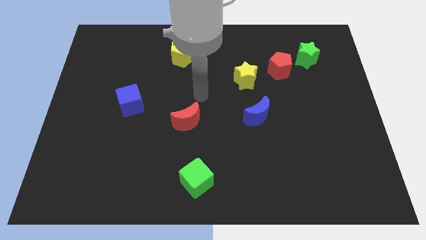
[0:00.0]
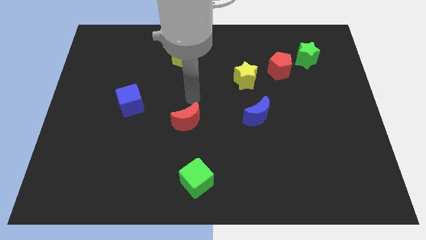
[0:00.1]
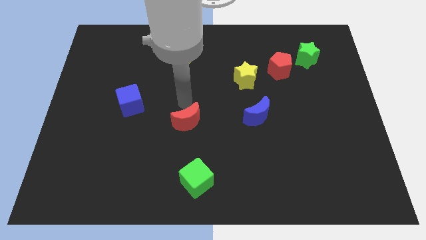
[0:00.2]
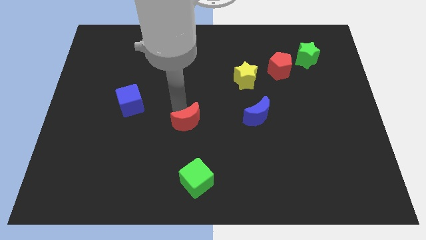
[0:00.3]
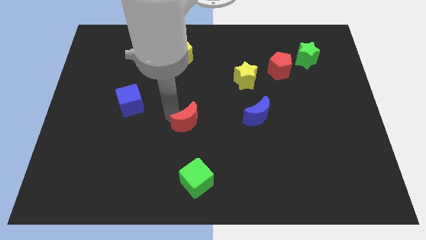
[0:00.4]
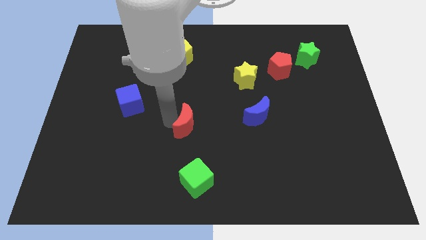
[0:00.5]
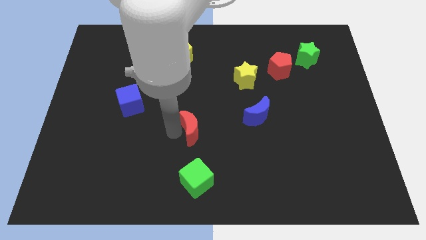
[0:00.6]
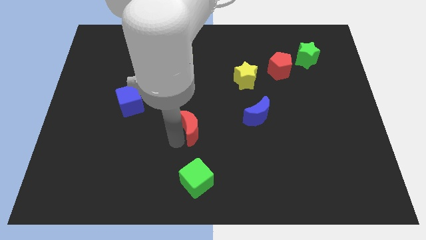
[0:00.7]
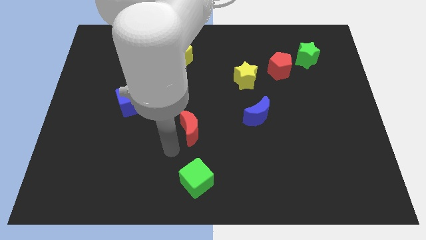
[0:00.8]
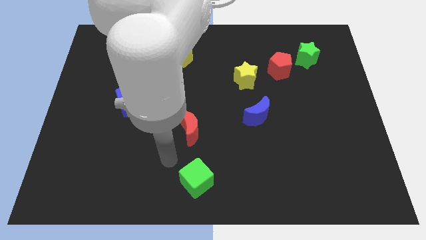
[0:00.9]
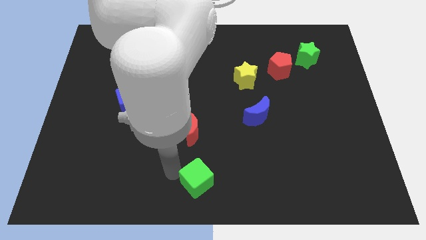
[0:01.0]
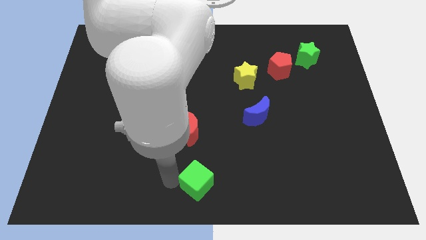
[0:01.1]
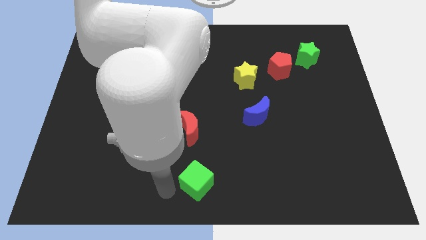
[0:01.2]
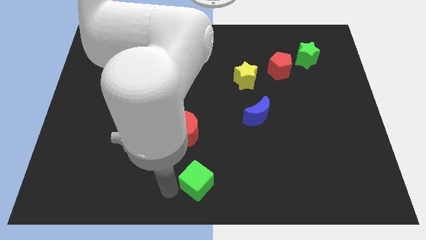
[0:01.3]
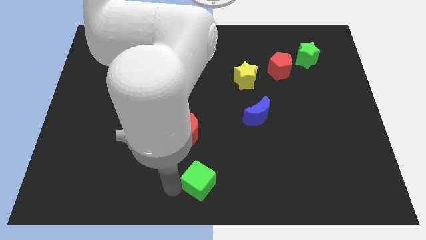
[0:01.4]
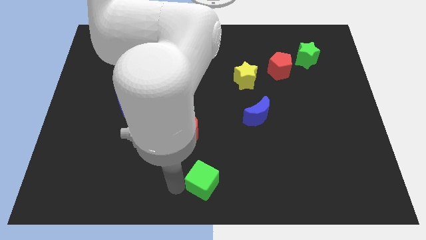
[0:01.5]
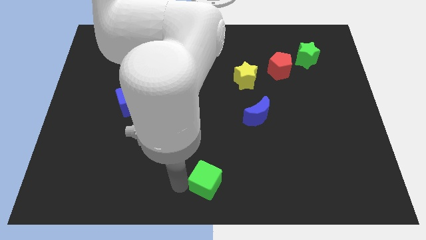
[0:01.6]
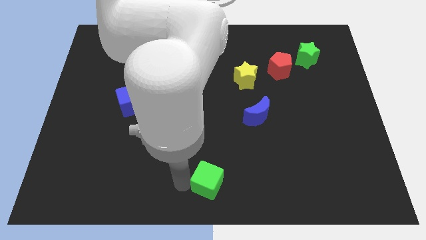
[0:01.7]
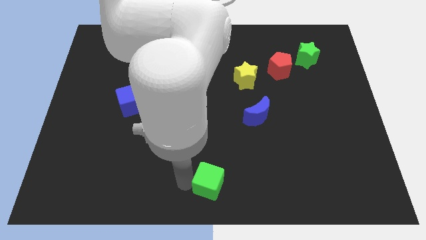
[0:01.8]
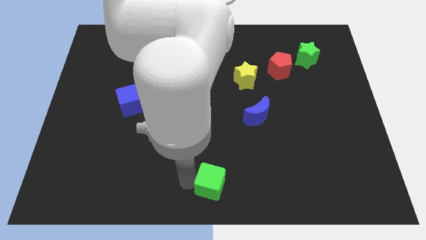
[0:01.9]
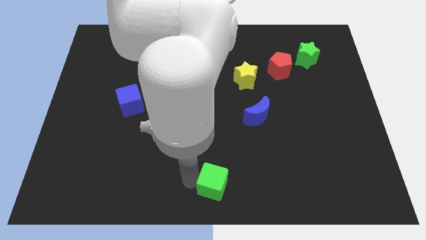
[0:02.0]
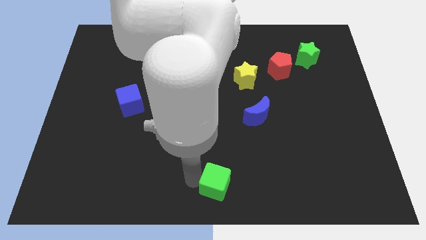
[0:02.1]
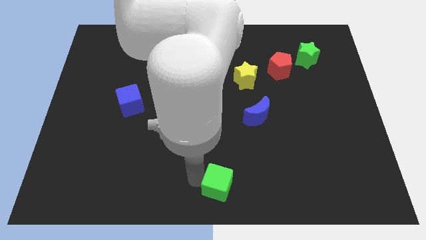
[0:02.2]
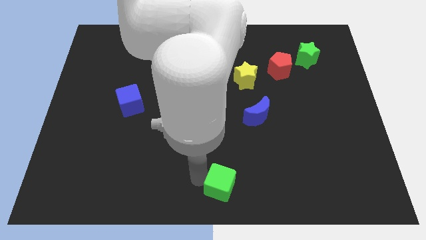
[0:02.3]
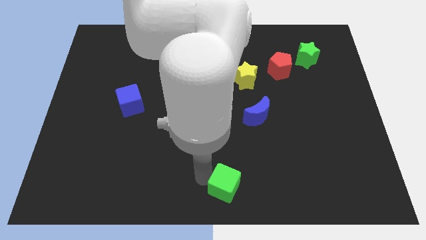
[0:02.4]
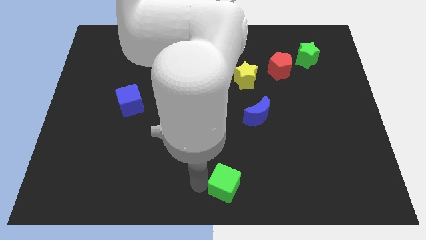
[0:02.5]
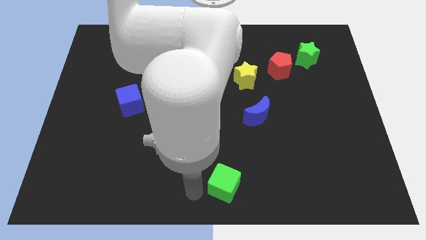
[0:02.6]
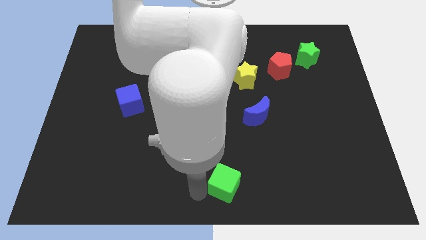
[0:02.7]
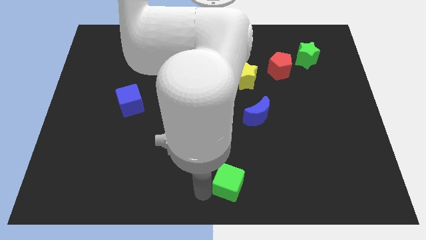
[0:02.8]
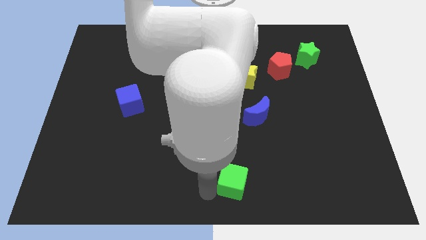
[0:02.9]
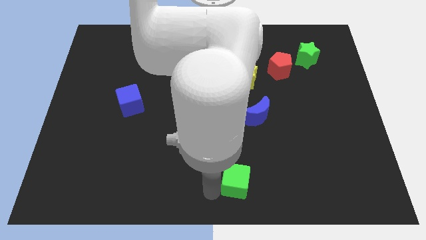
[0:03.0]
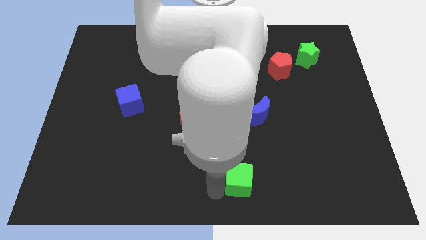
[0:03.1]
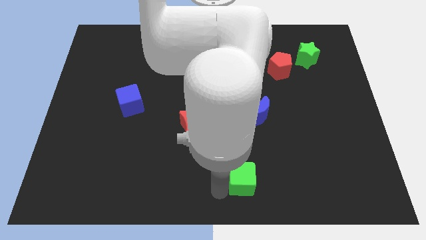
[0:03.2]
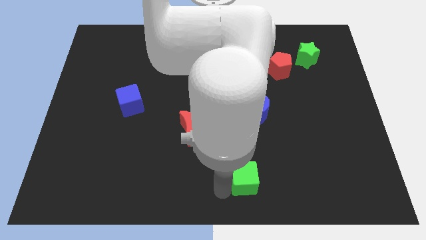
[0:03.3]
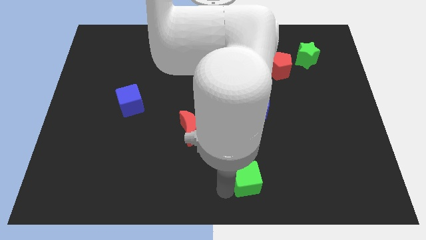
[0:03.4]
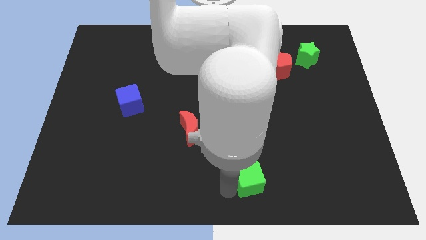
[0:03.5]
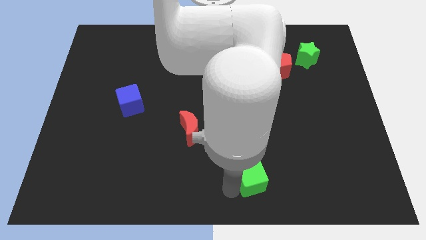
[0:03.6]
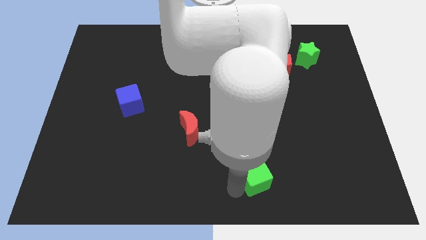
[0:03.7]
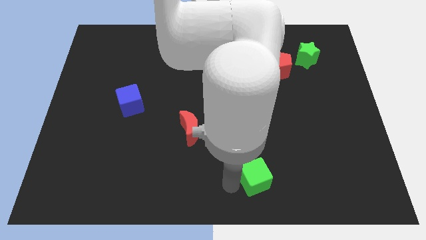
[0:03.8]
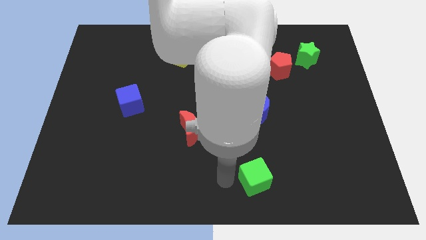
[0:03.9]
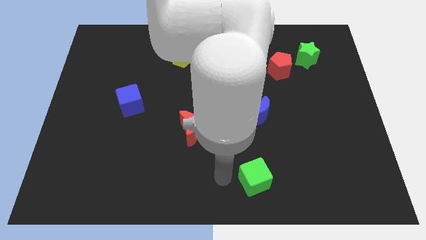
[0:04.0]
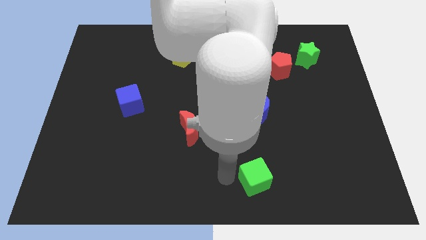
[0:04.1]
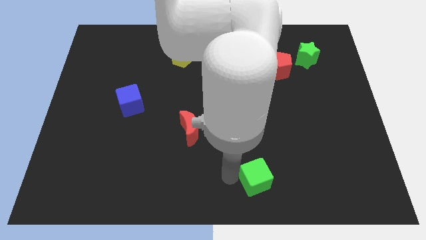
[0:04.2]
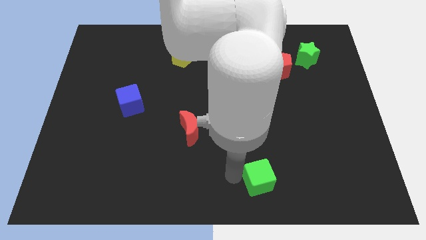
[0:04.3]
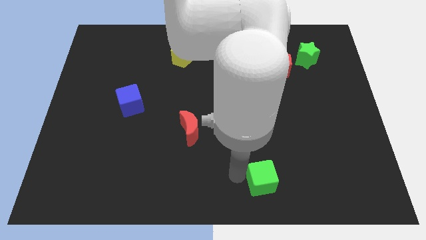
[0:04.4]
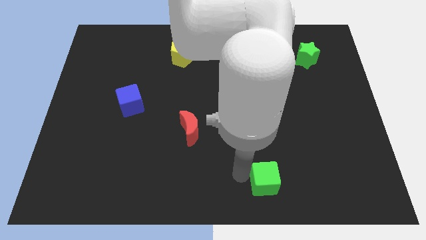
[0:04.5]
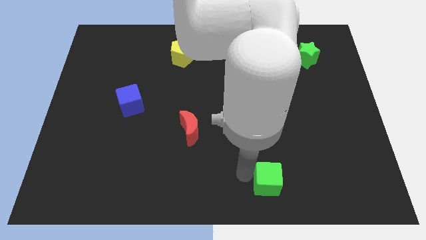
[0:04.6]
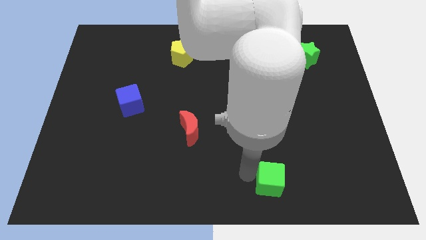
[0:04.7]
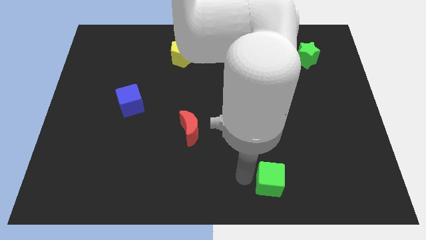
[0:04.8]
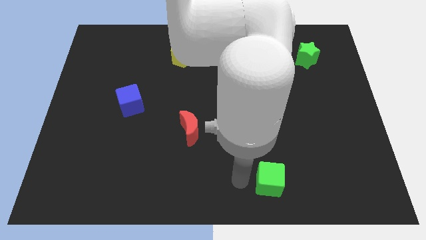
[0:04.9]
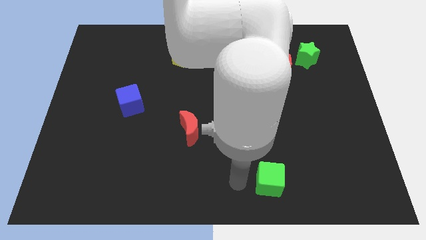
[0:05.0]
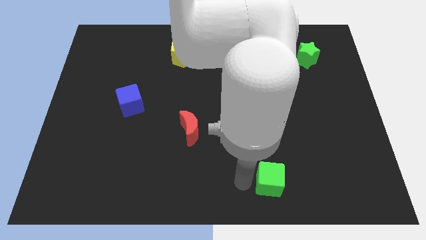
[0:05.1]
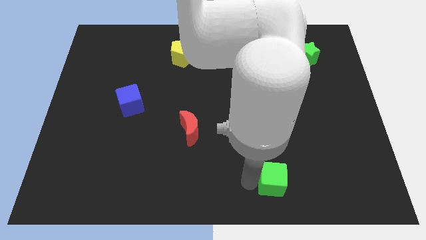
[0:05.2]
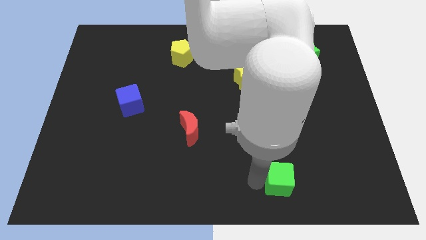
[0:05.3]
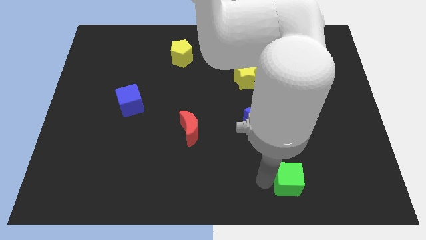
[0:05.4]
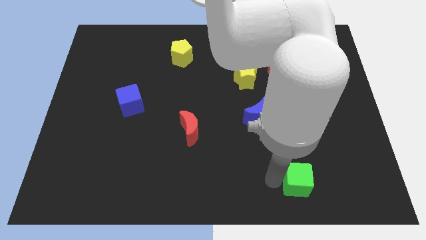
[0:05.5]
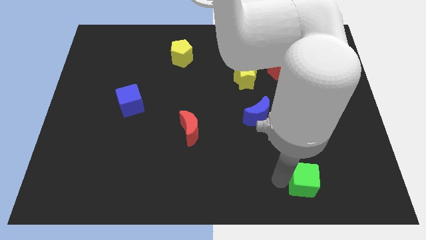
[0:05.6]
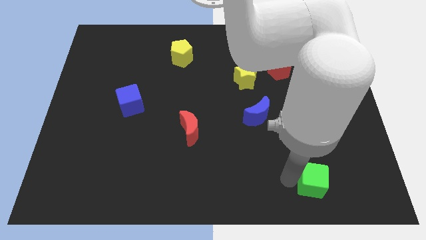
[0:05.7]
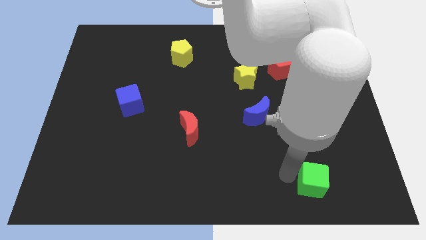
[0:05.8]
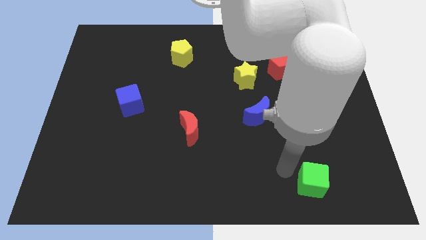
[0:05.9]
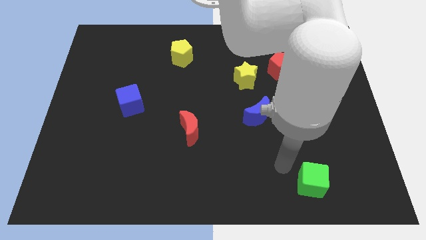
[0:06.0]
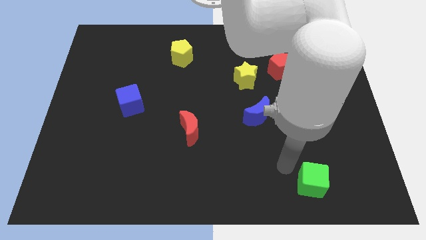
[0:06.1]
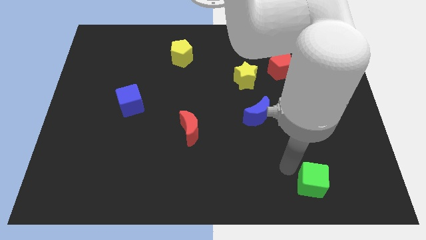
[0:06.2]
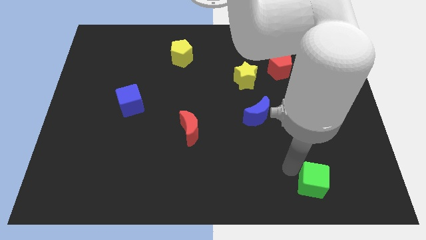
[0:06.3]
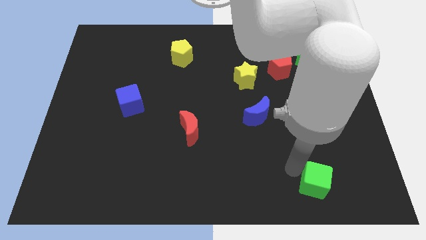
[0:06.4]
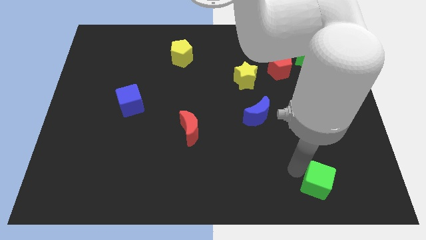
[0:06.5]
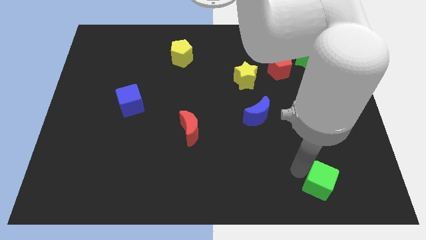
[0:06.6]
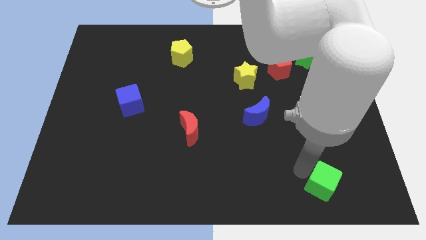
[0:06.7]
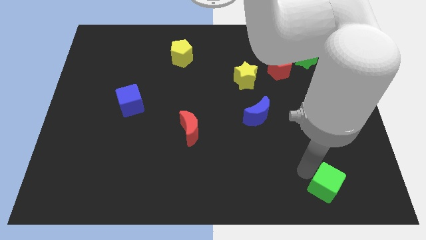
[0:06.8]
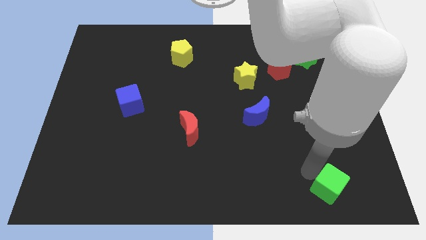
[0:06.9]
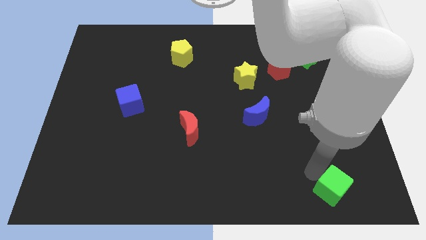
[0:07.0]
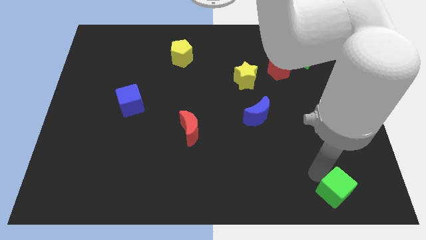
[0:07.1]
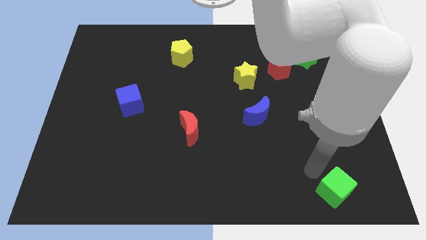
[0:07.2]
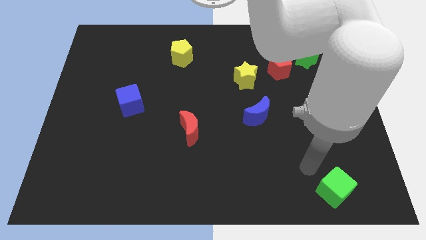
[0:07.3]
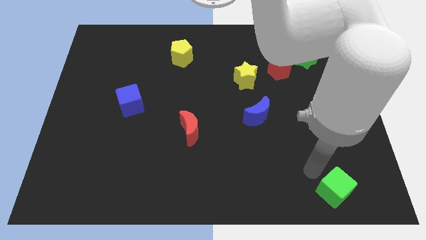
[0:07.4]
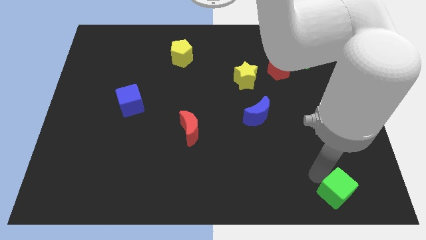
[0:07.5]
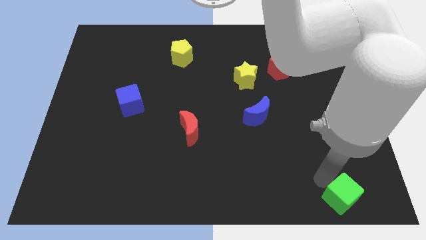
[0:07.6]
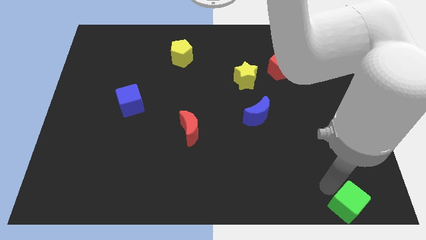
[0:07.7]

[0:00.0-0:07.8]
move the green cube to the bottom right corner
